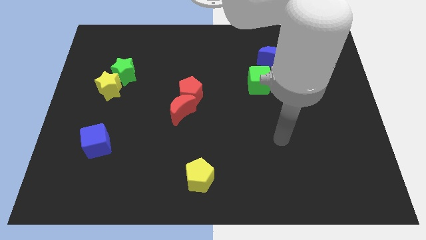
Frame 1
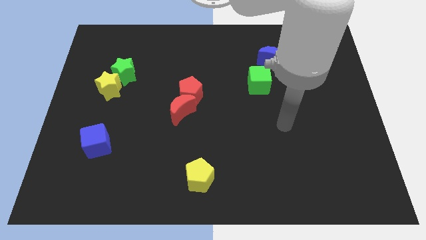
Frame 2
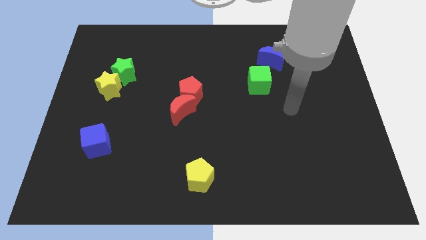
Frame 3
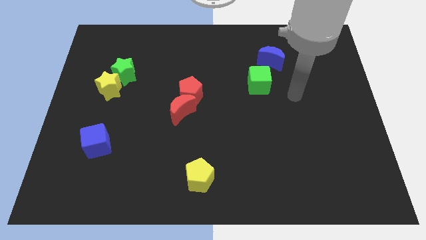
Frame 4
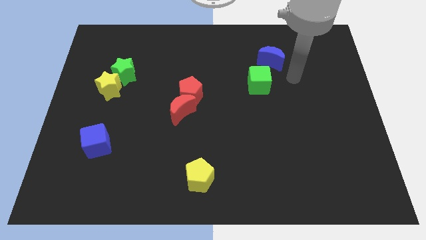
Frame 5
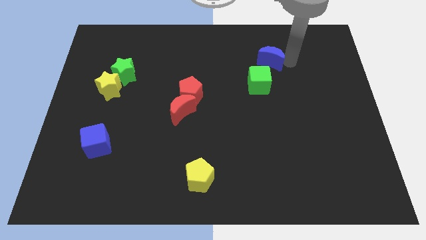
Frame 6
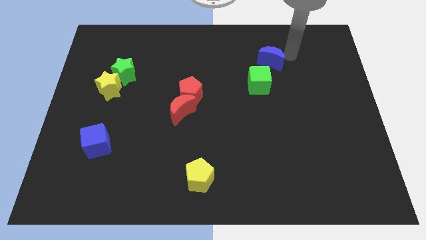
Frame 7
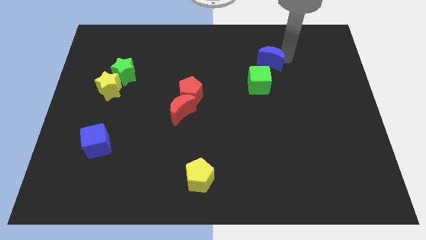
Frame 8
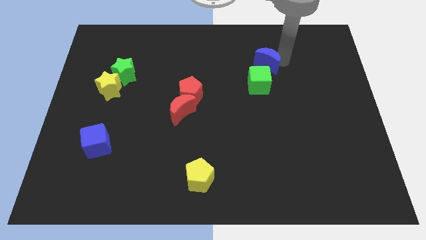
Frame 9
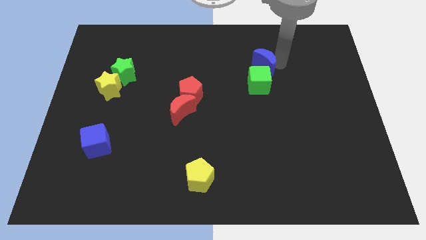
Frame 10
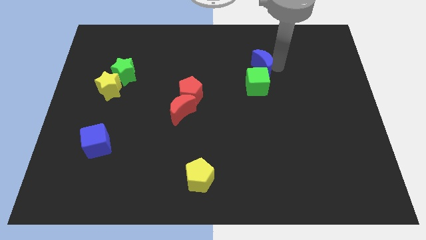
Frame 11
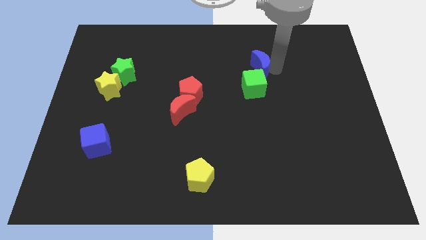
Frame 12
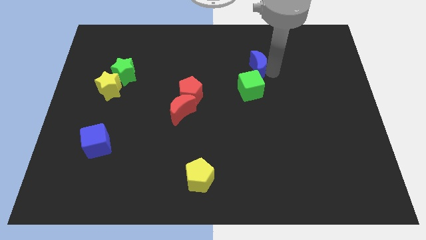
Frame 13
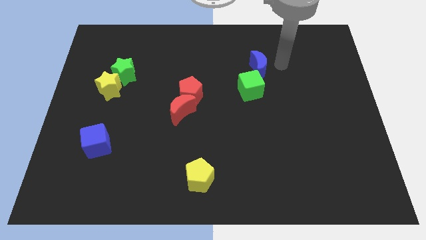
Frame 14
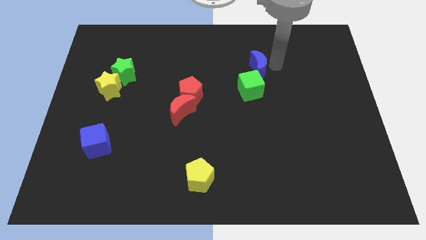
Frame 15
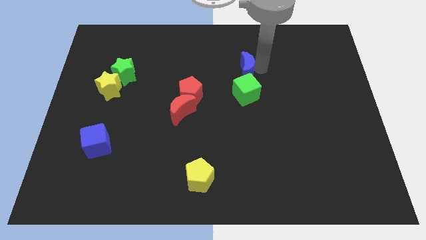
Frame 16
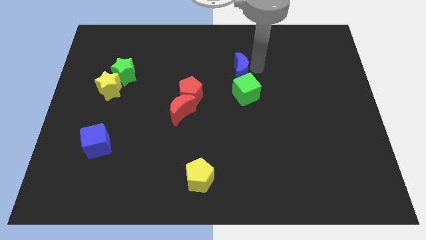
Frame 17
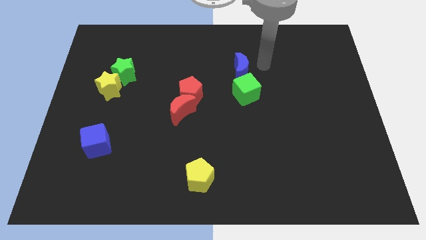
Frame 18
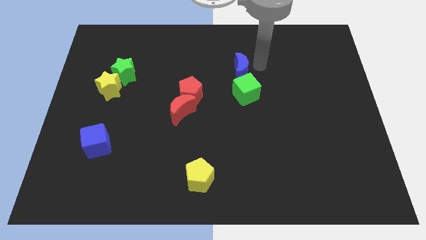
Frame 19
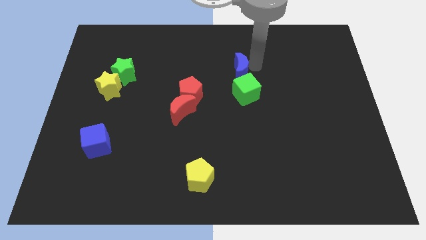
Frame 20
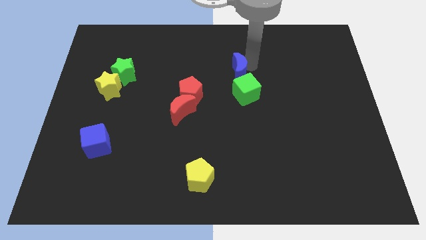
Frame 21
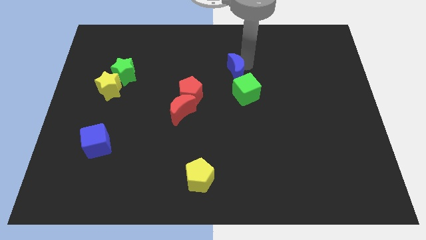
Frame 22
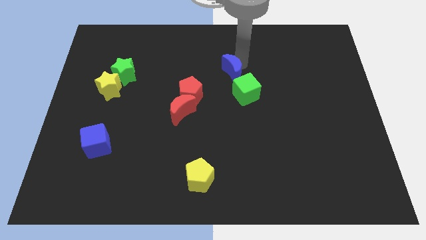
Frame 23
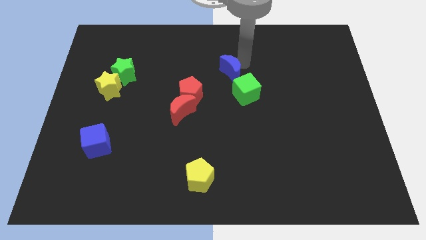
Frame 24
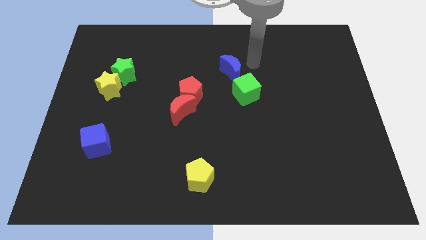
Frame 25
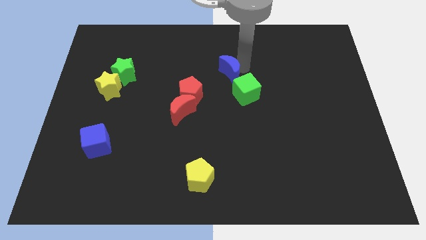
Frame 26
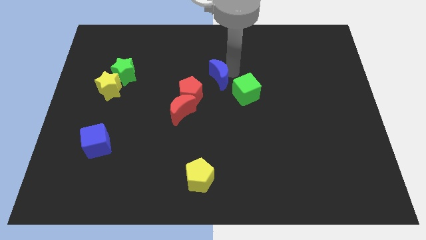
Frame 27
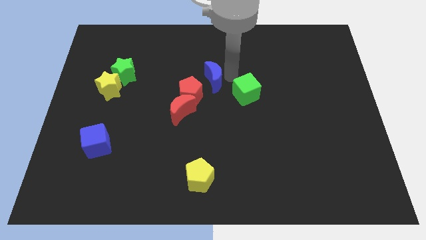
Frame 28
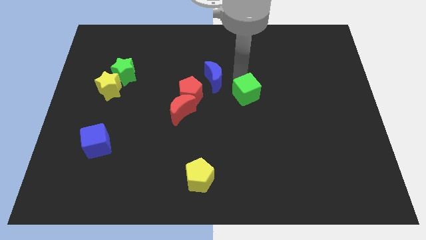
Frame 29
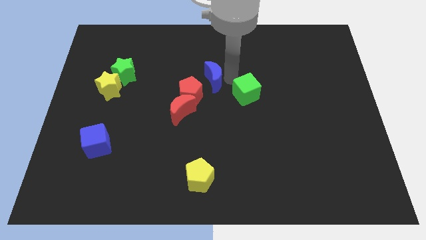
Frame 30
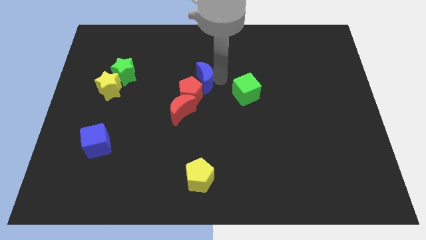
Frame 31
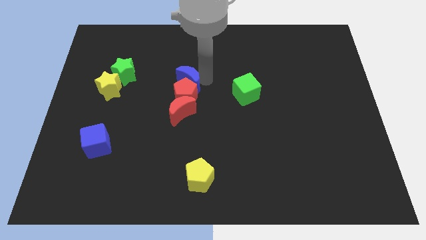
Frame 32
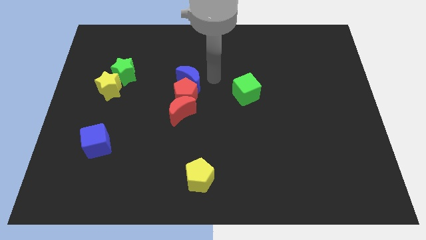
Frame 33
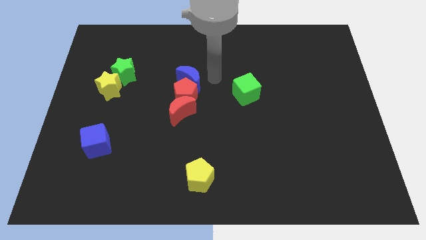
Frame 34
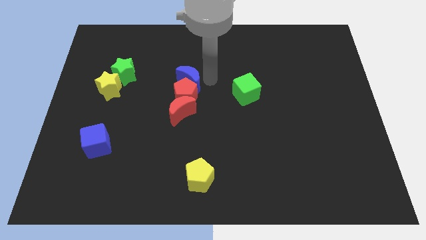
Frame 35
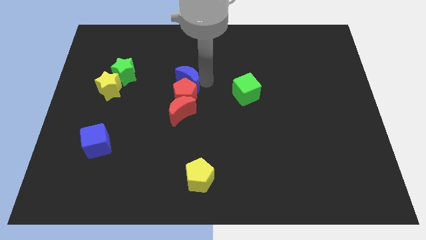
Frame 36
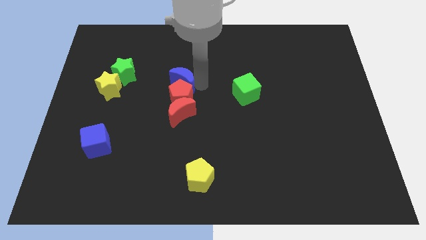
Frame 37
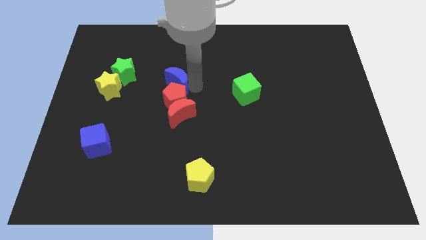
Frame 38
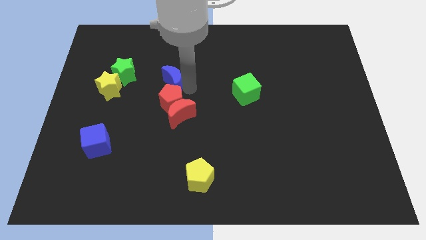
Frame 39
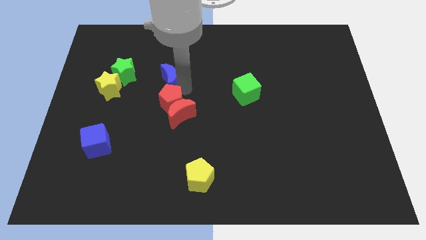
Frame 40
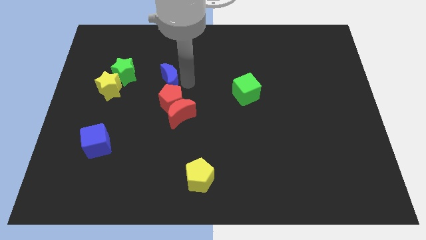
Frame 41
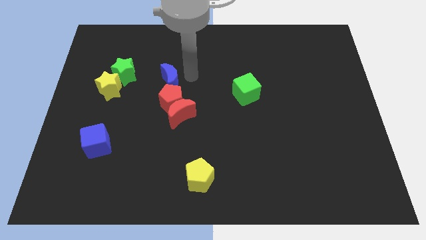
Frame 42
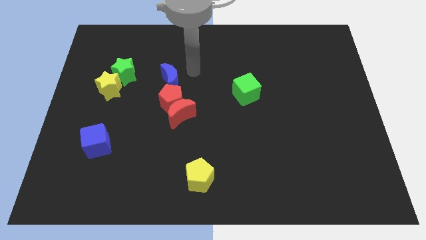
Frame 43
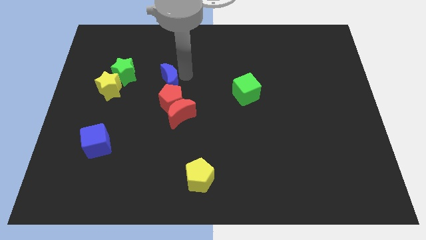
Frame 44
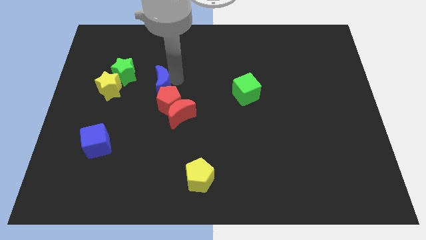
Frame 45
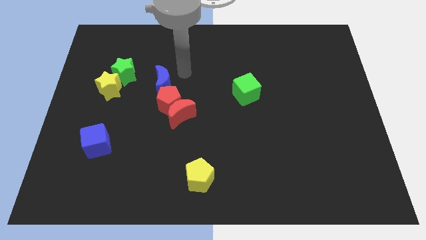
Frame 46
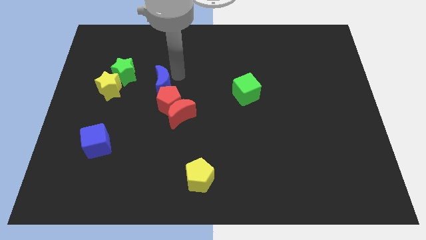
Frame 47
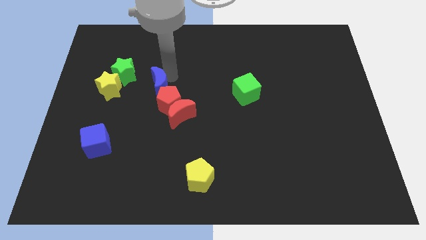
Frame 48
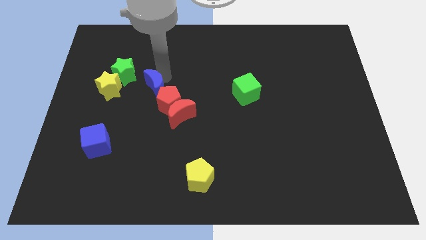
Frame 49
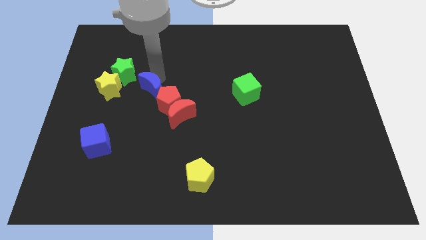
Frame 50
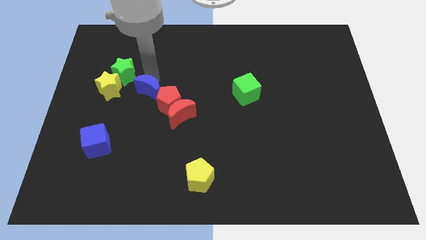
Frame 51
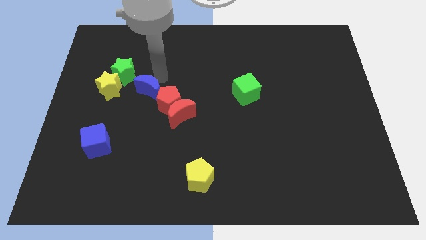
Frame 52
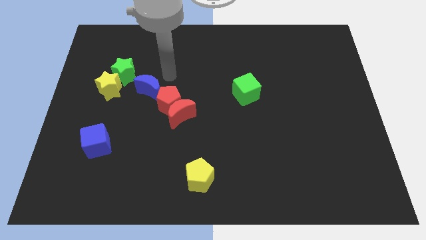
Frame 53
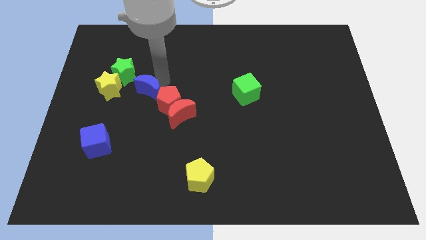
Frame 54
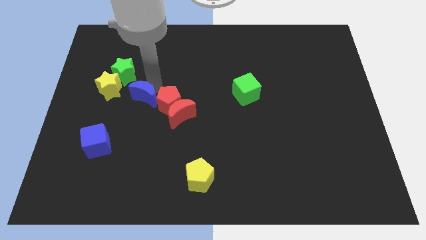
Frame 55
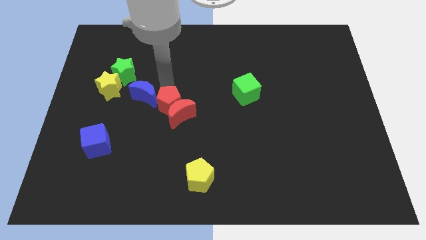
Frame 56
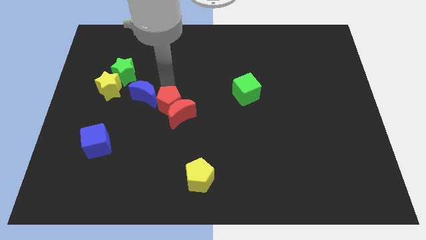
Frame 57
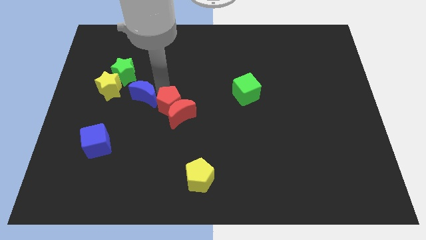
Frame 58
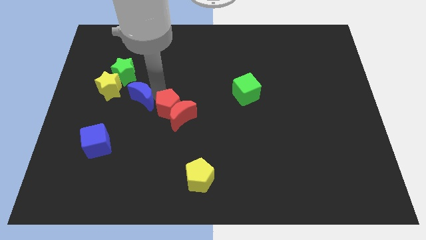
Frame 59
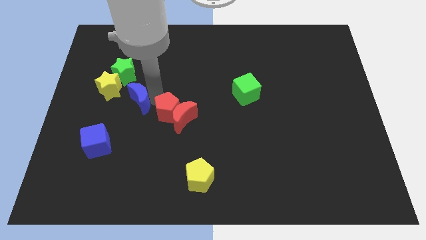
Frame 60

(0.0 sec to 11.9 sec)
put the blue moon to the bottom side of the green star
